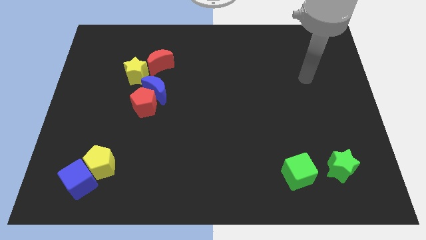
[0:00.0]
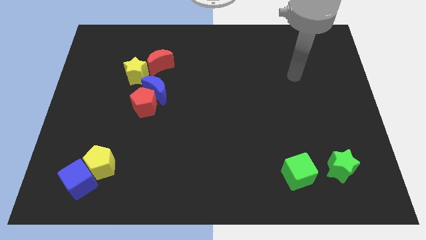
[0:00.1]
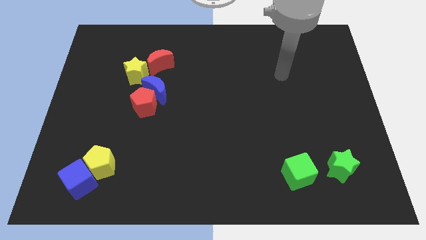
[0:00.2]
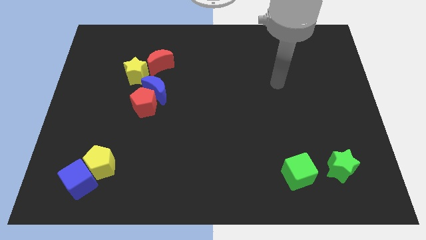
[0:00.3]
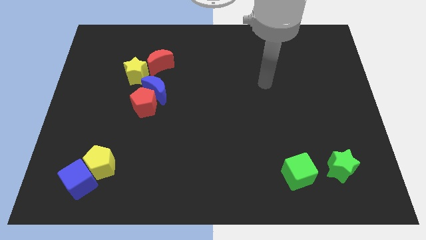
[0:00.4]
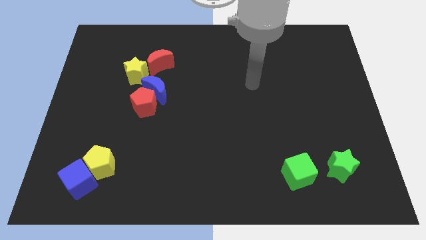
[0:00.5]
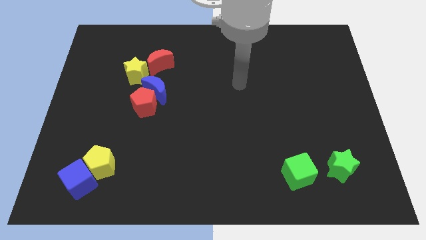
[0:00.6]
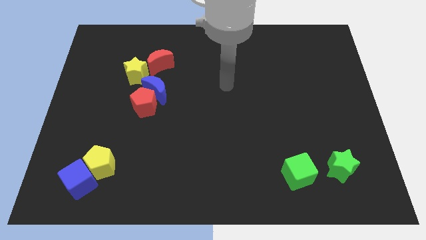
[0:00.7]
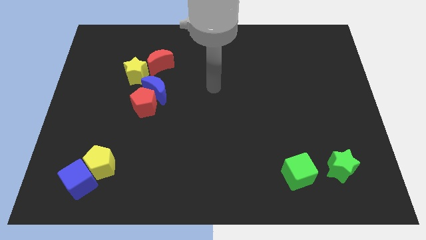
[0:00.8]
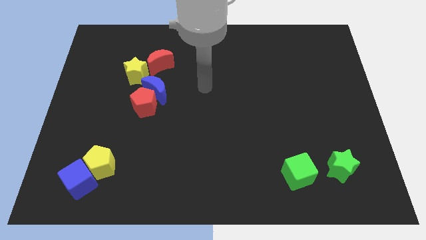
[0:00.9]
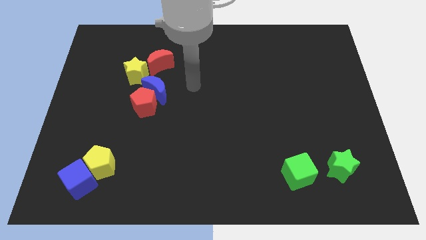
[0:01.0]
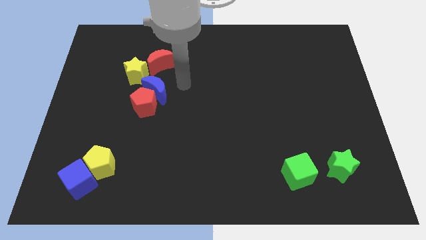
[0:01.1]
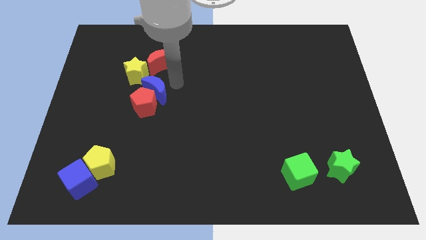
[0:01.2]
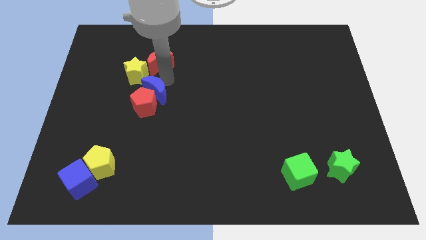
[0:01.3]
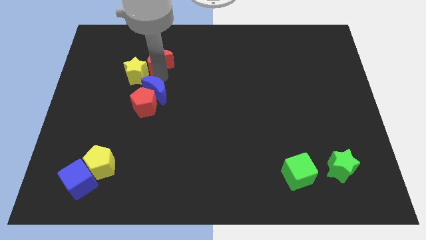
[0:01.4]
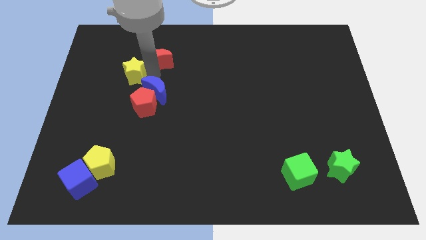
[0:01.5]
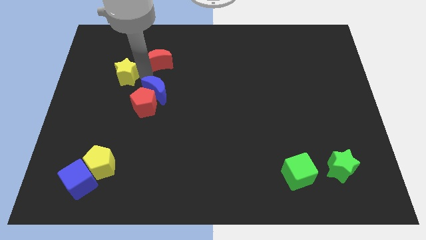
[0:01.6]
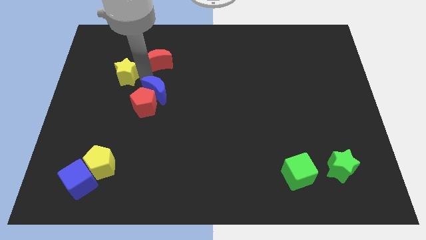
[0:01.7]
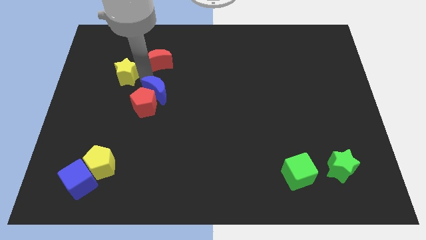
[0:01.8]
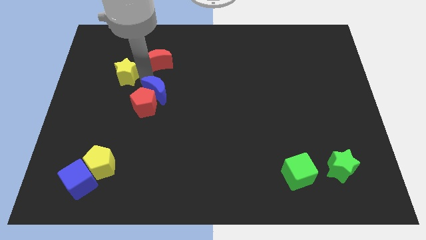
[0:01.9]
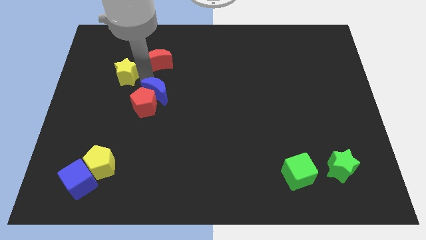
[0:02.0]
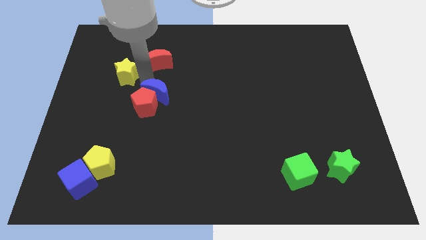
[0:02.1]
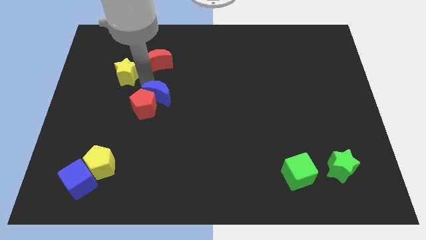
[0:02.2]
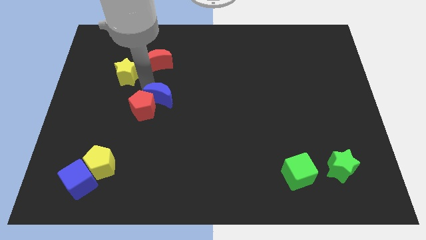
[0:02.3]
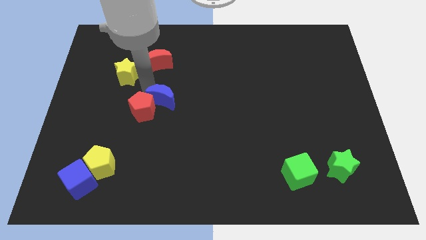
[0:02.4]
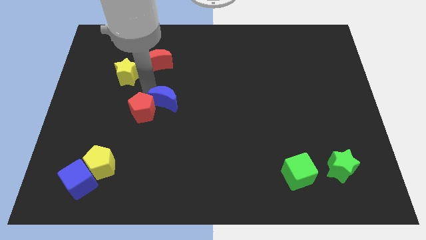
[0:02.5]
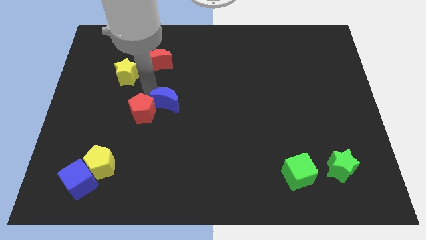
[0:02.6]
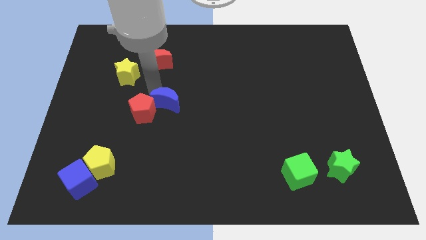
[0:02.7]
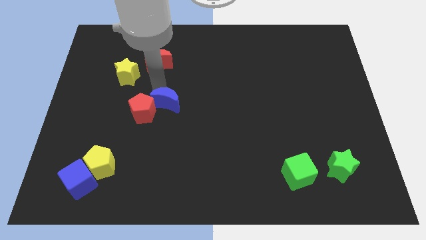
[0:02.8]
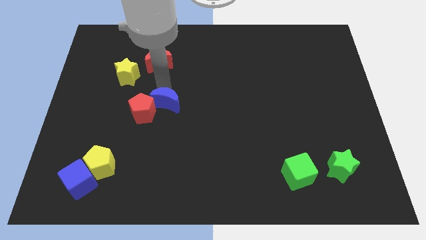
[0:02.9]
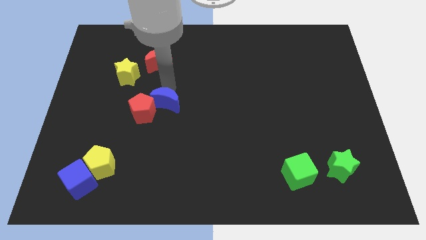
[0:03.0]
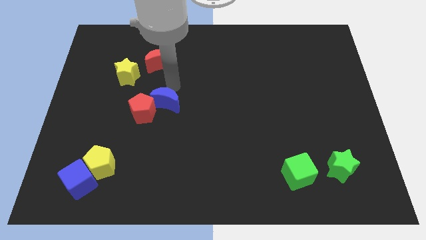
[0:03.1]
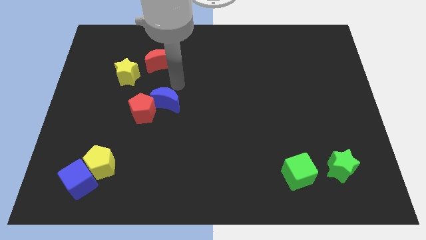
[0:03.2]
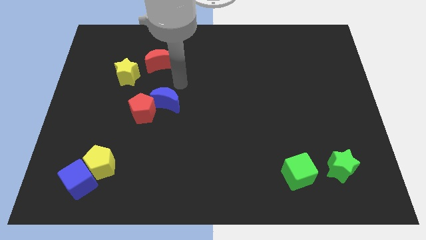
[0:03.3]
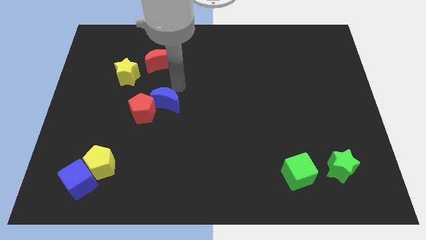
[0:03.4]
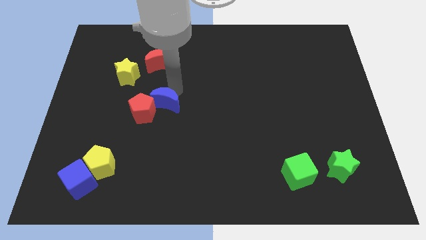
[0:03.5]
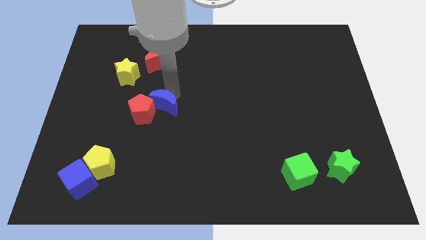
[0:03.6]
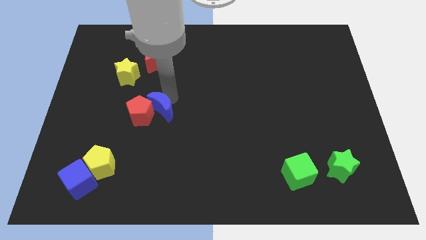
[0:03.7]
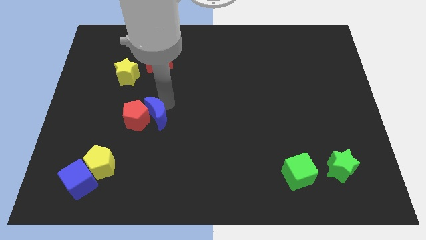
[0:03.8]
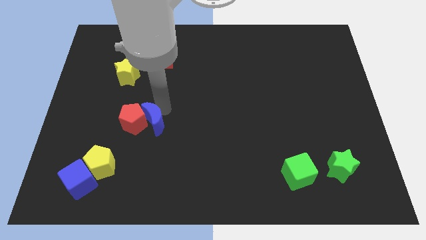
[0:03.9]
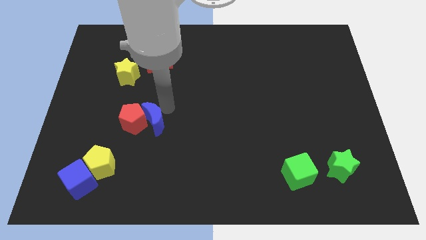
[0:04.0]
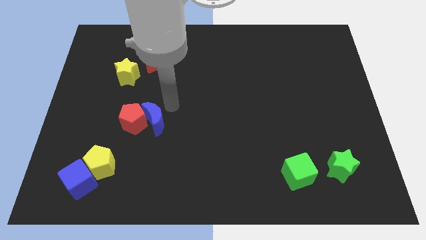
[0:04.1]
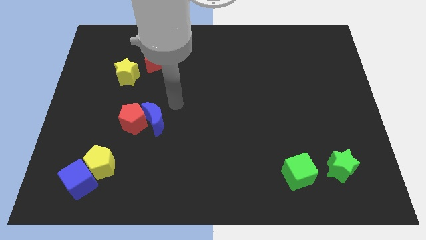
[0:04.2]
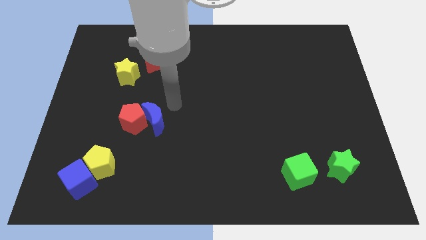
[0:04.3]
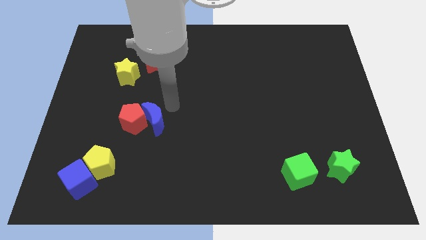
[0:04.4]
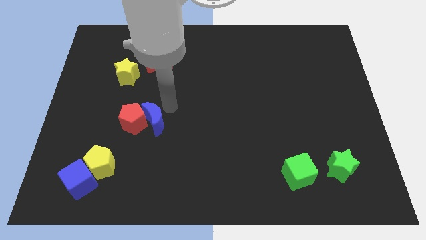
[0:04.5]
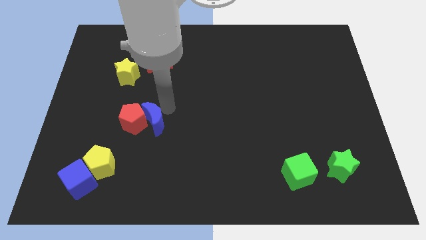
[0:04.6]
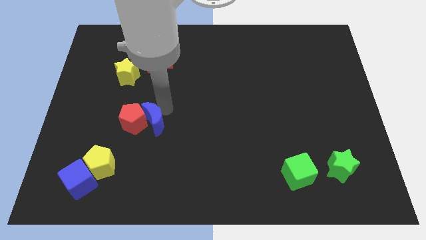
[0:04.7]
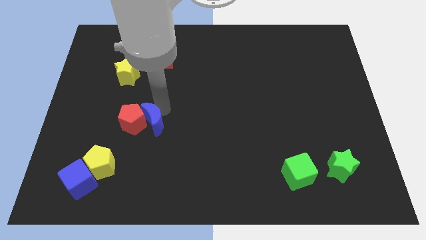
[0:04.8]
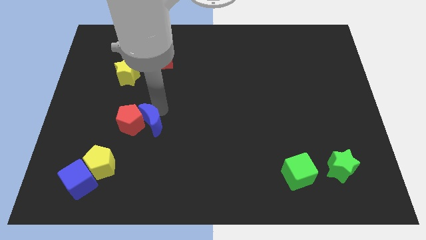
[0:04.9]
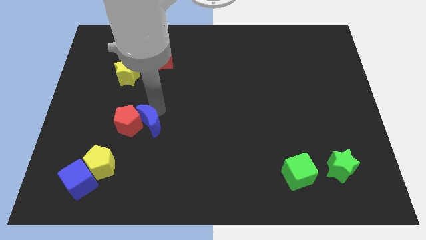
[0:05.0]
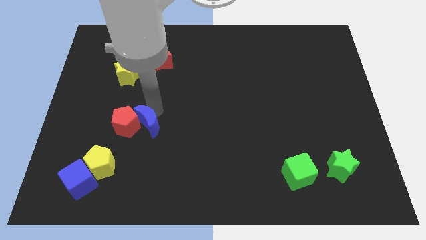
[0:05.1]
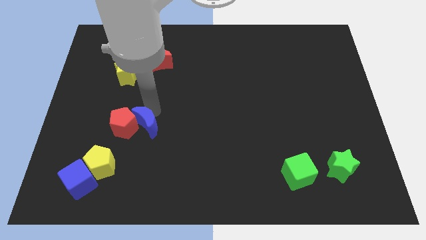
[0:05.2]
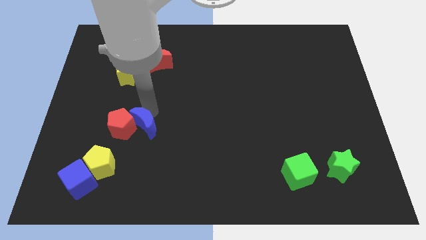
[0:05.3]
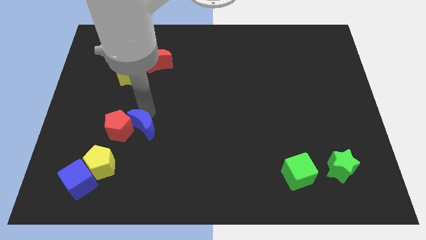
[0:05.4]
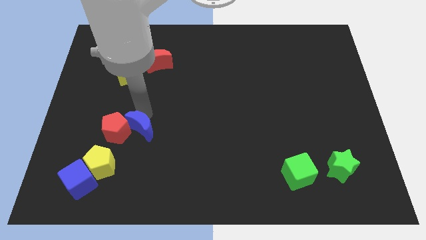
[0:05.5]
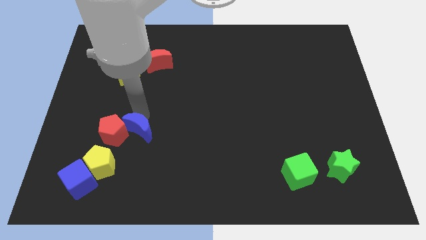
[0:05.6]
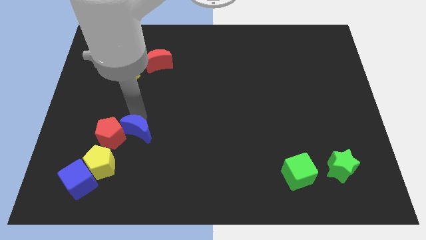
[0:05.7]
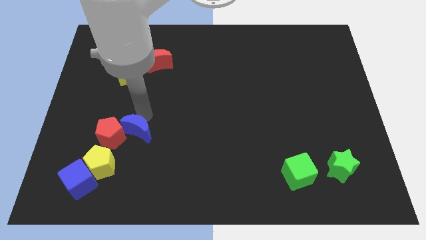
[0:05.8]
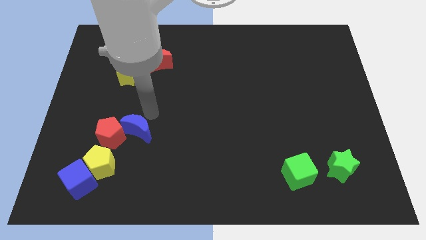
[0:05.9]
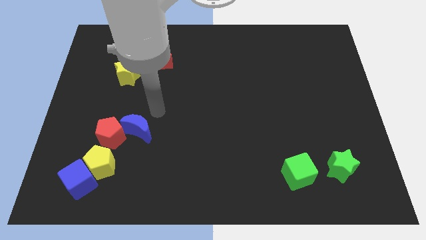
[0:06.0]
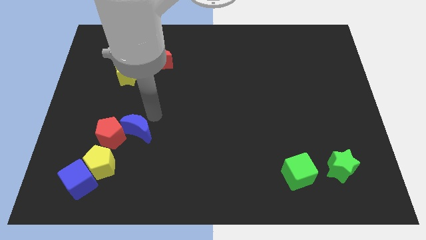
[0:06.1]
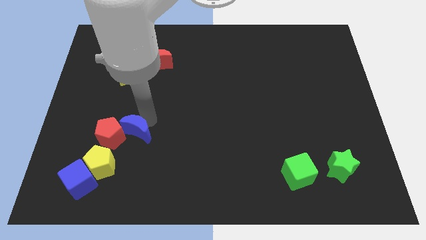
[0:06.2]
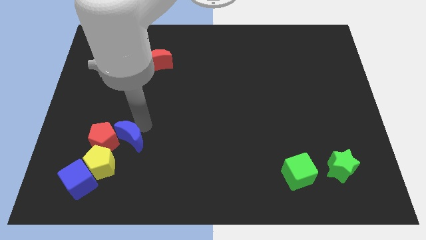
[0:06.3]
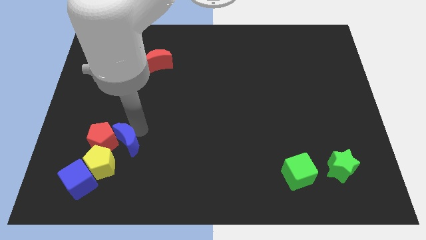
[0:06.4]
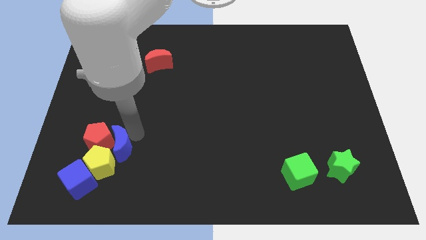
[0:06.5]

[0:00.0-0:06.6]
put the blue moon close to the yellow pentagon

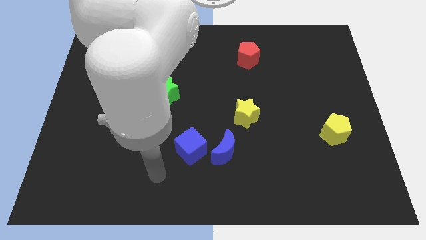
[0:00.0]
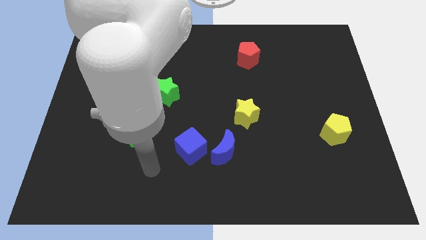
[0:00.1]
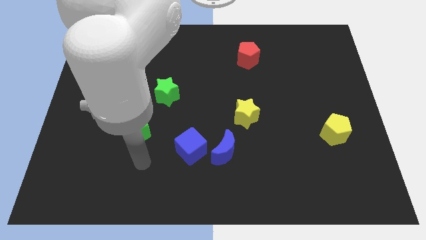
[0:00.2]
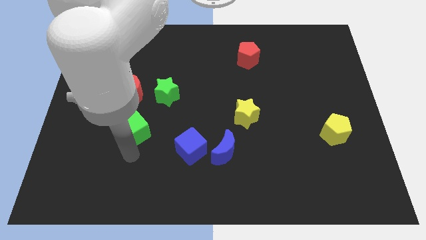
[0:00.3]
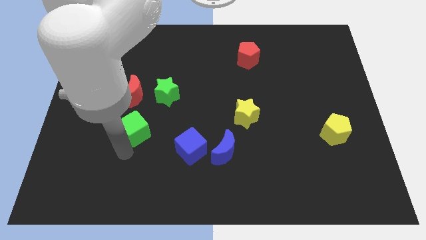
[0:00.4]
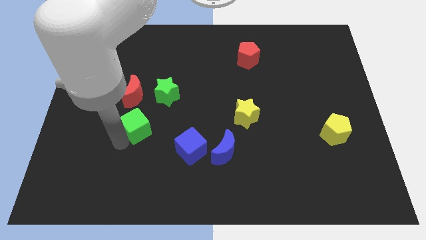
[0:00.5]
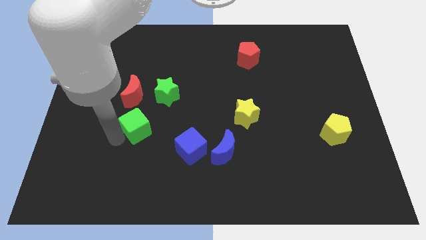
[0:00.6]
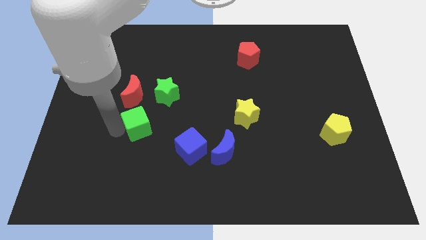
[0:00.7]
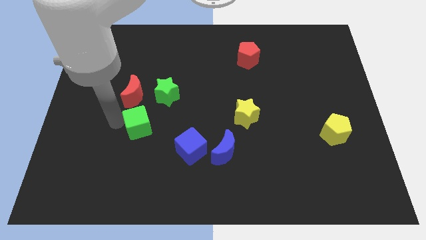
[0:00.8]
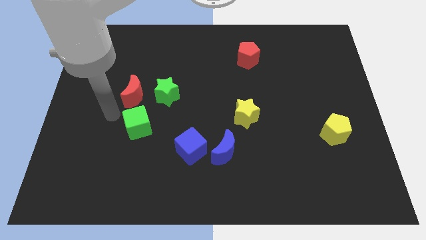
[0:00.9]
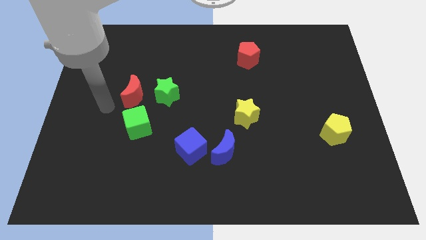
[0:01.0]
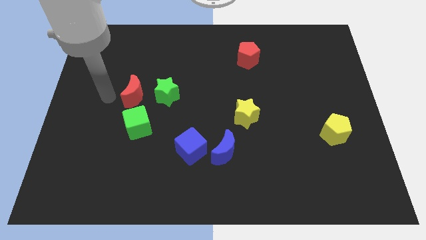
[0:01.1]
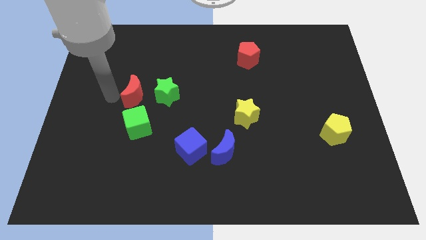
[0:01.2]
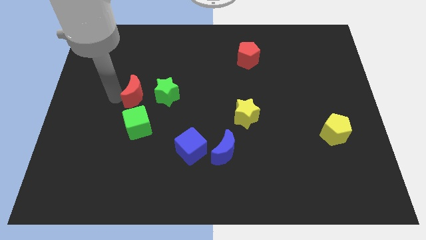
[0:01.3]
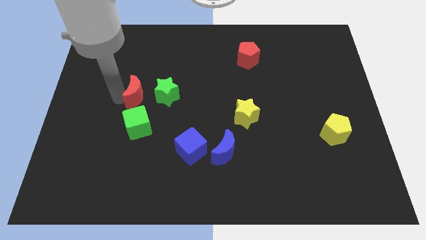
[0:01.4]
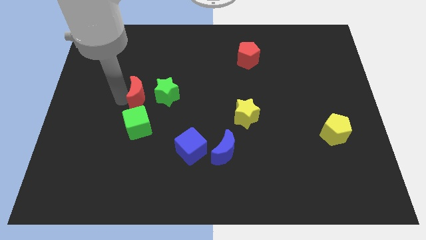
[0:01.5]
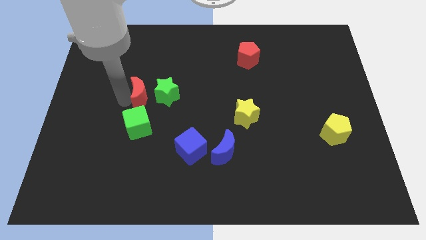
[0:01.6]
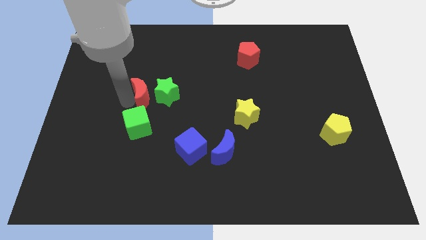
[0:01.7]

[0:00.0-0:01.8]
move the red moon to the green star
